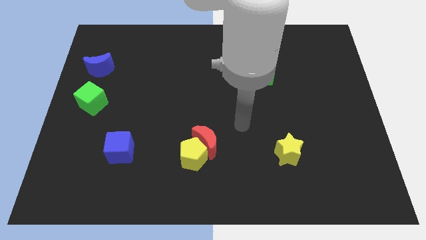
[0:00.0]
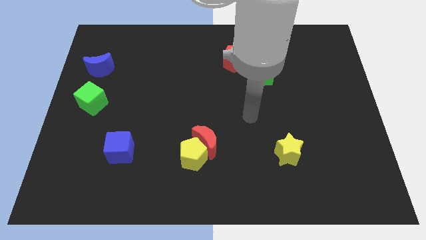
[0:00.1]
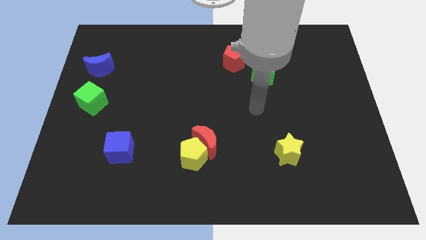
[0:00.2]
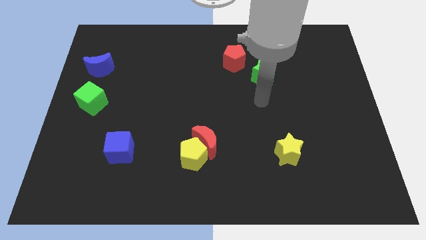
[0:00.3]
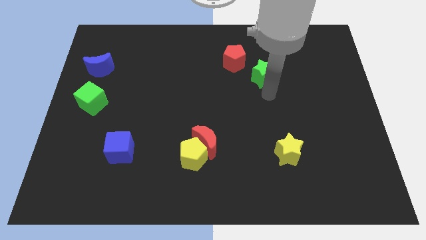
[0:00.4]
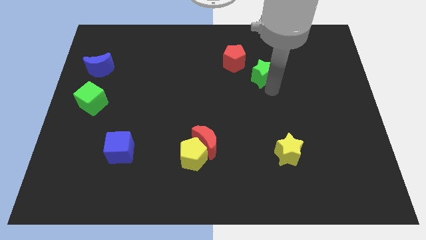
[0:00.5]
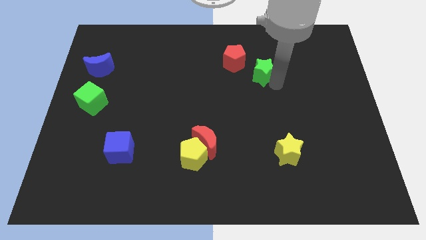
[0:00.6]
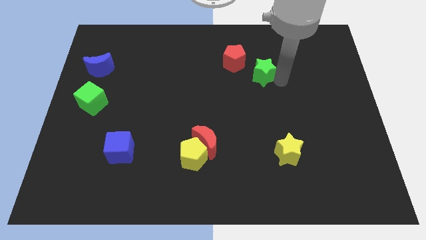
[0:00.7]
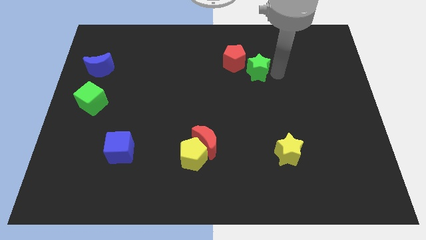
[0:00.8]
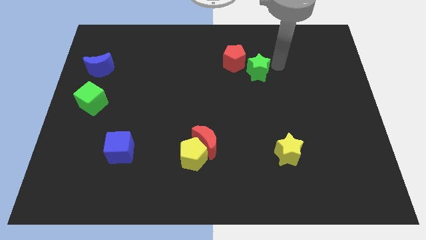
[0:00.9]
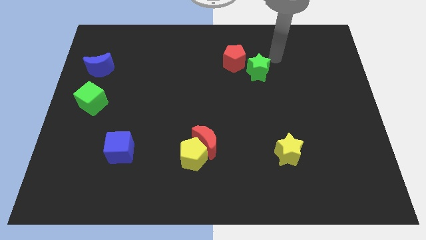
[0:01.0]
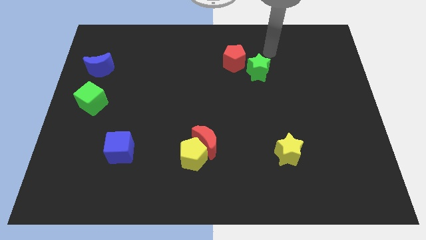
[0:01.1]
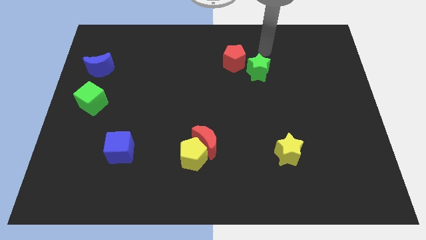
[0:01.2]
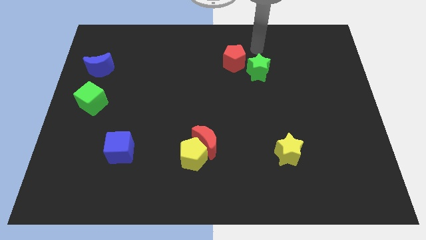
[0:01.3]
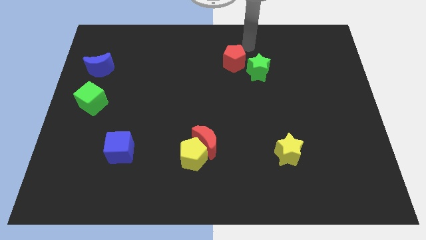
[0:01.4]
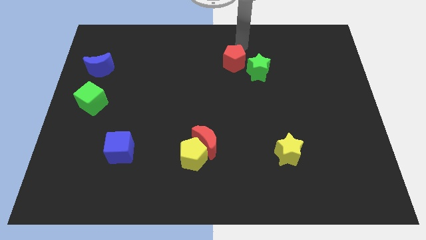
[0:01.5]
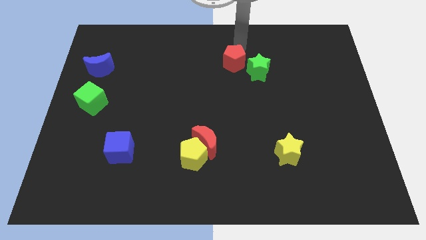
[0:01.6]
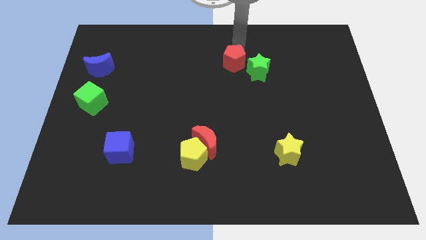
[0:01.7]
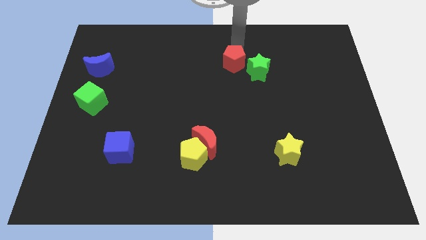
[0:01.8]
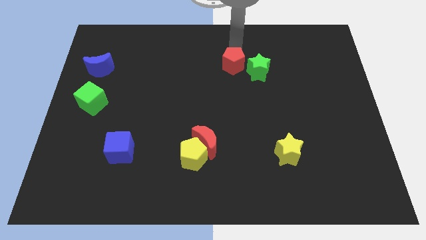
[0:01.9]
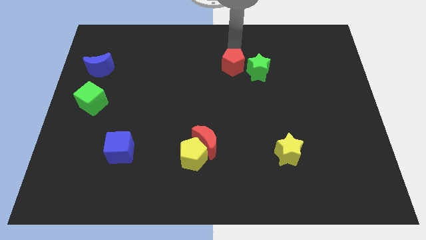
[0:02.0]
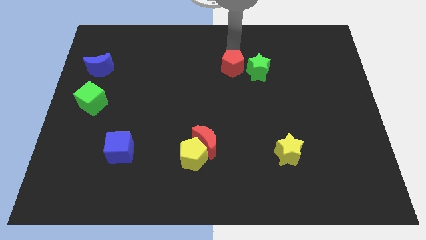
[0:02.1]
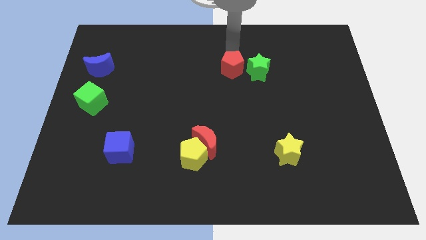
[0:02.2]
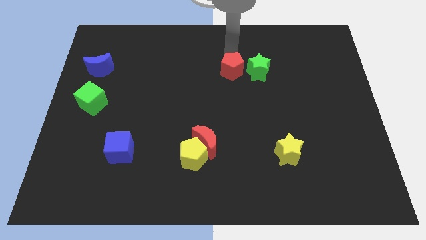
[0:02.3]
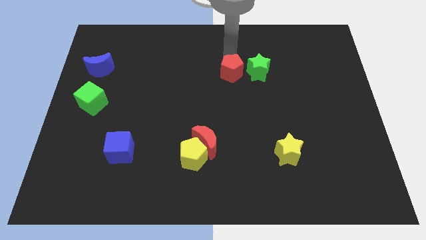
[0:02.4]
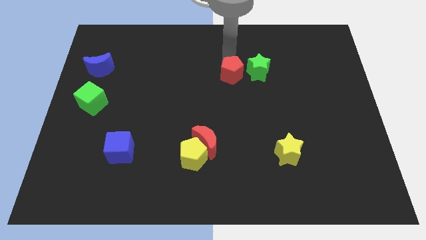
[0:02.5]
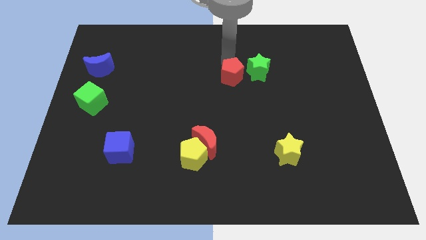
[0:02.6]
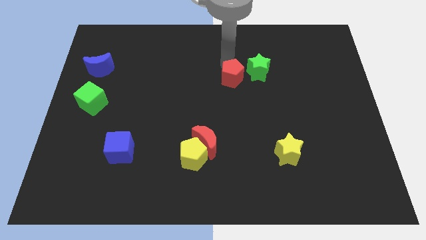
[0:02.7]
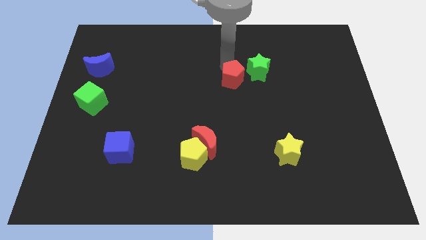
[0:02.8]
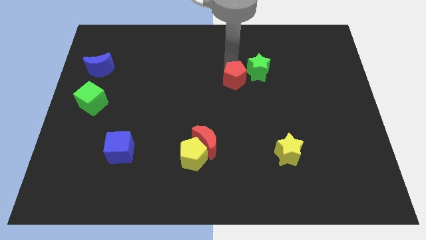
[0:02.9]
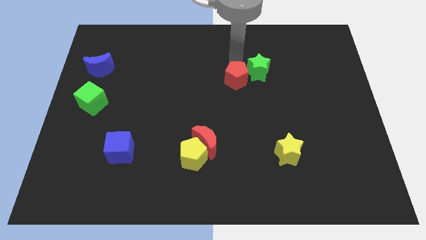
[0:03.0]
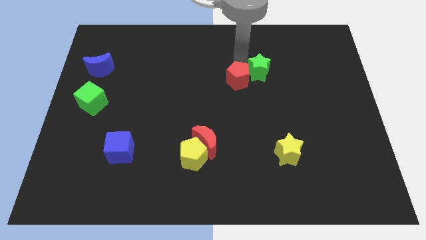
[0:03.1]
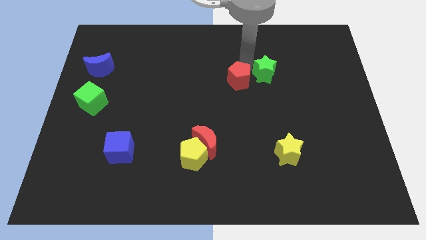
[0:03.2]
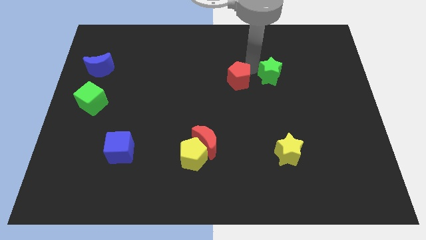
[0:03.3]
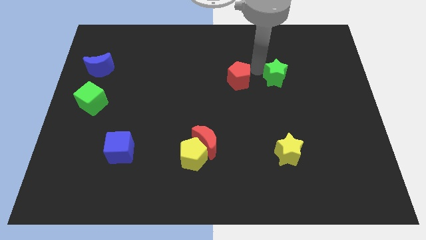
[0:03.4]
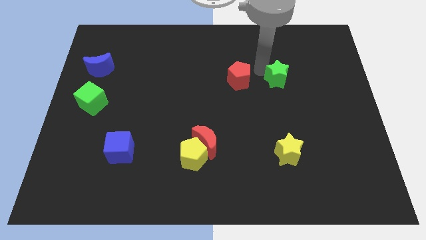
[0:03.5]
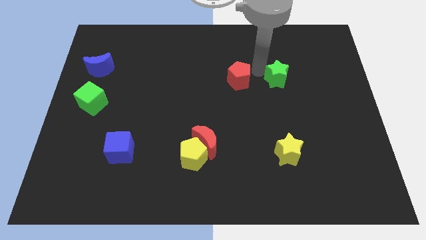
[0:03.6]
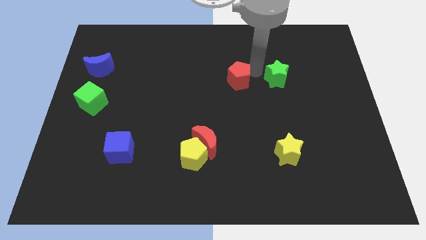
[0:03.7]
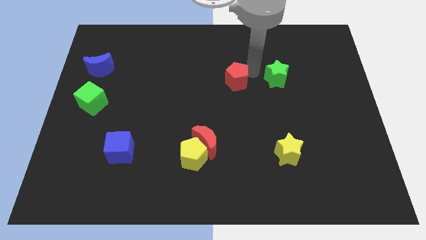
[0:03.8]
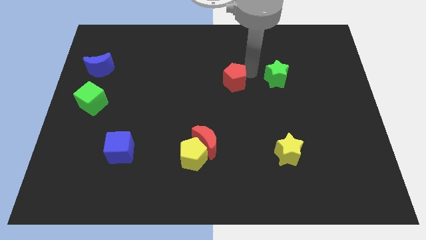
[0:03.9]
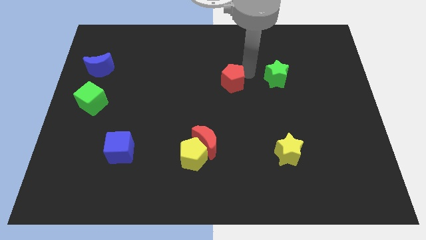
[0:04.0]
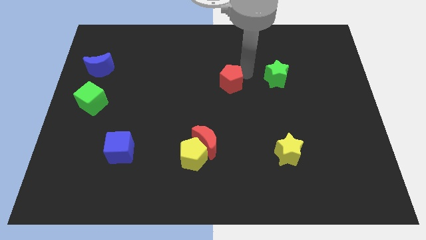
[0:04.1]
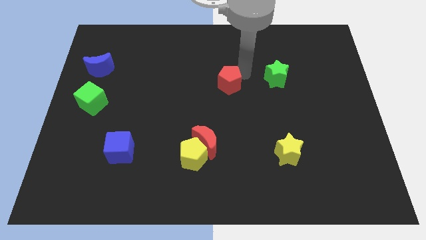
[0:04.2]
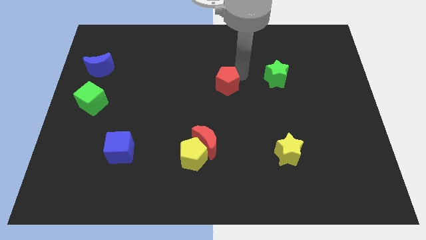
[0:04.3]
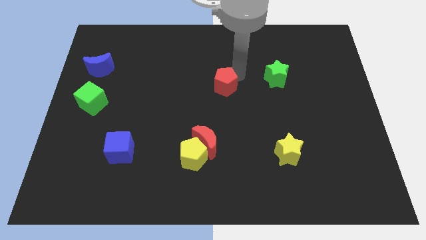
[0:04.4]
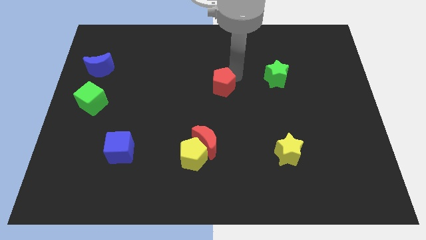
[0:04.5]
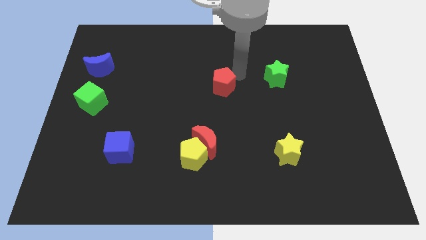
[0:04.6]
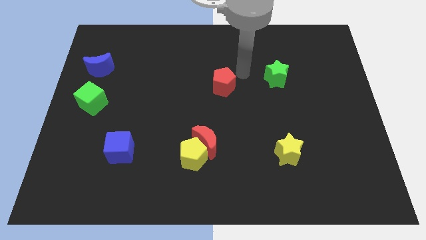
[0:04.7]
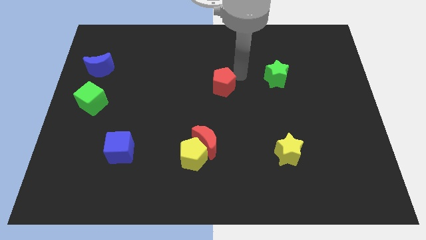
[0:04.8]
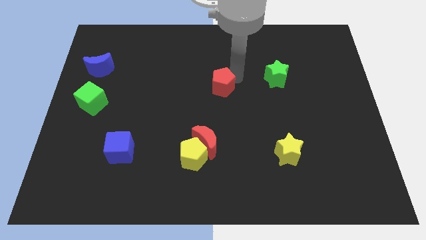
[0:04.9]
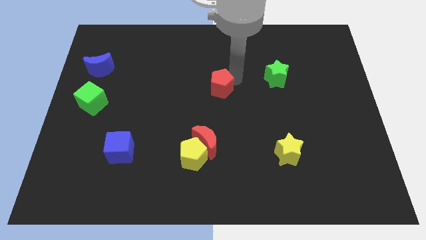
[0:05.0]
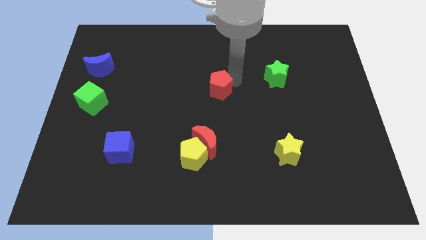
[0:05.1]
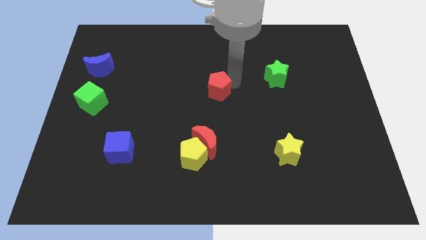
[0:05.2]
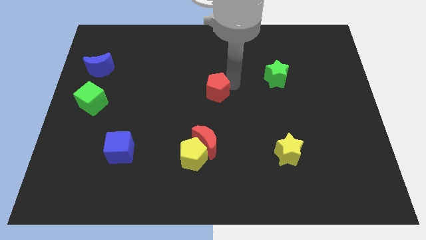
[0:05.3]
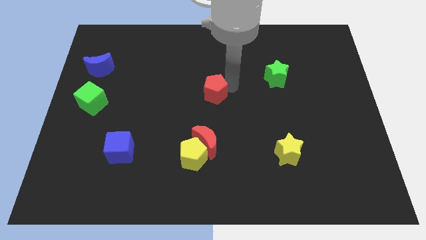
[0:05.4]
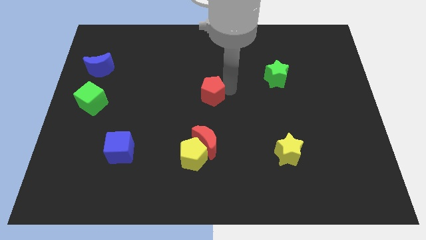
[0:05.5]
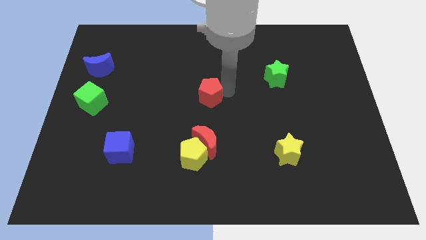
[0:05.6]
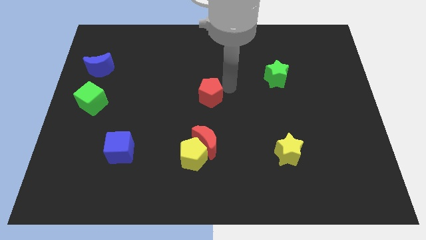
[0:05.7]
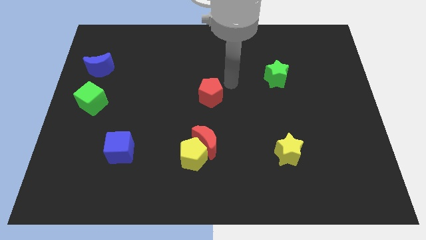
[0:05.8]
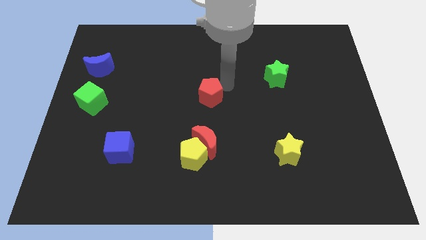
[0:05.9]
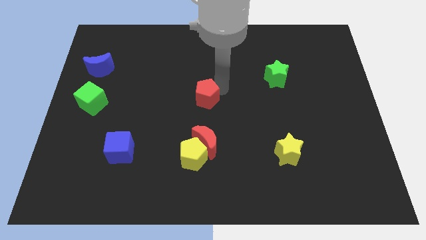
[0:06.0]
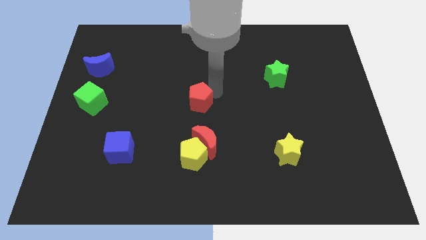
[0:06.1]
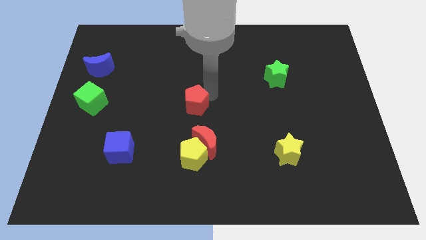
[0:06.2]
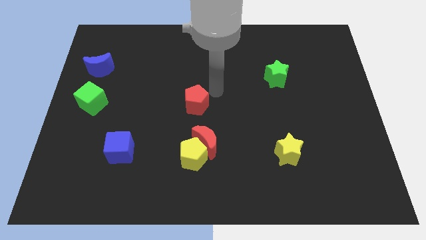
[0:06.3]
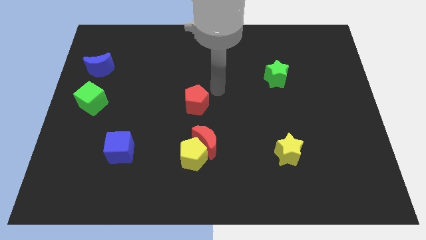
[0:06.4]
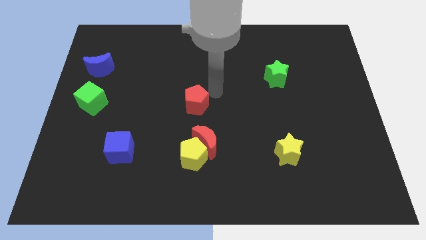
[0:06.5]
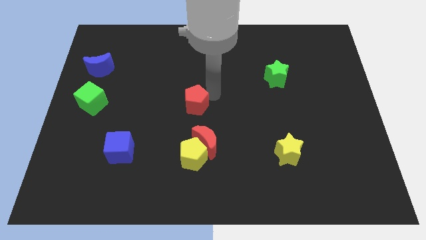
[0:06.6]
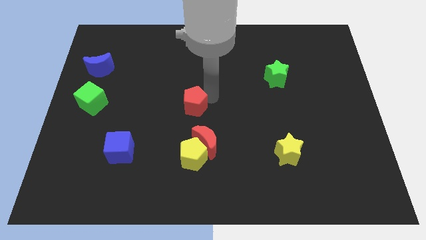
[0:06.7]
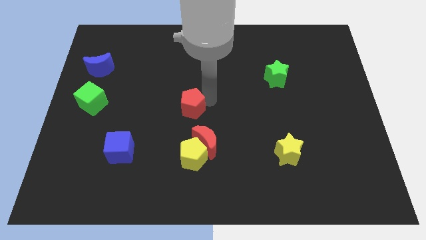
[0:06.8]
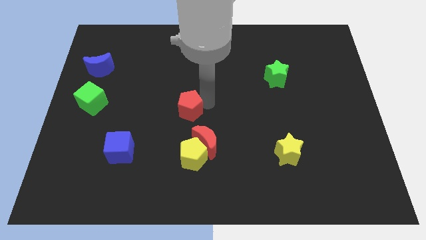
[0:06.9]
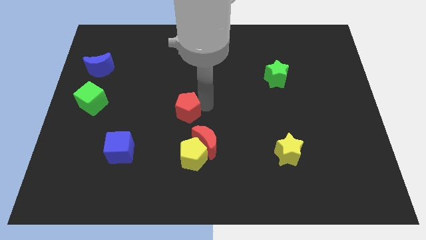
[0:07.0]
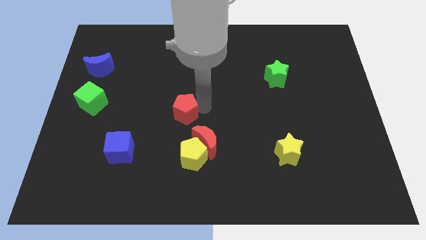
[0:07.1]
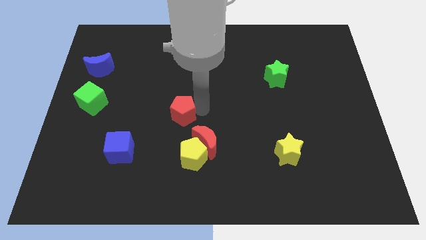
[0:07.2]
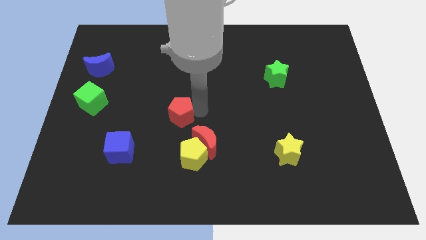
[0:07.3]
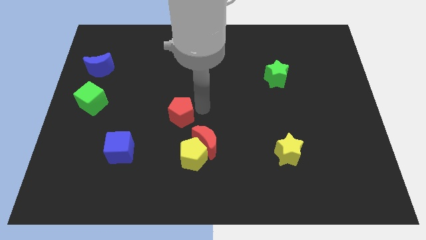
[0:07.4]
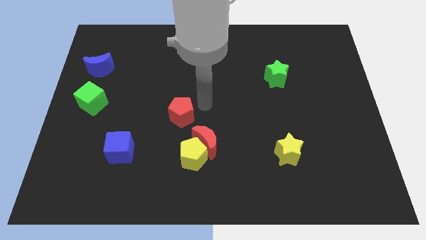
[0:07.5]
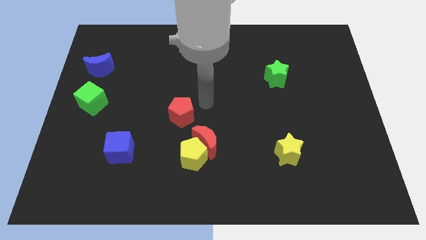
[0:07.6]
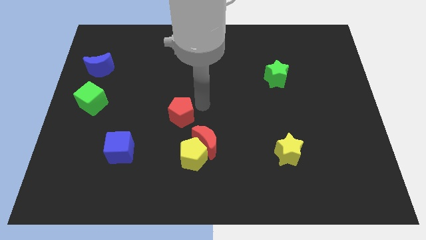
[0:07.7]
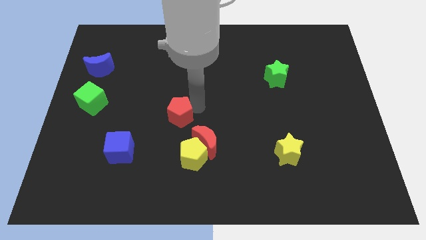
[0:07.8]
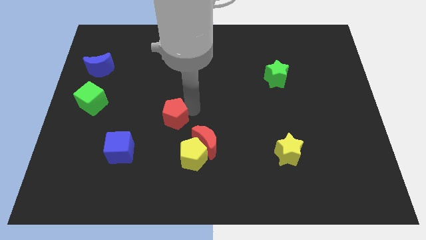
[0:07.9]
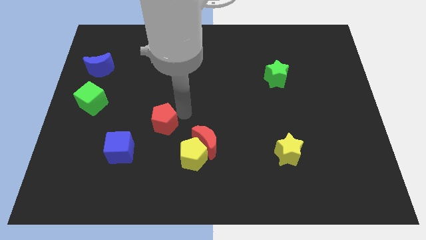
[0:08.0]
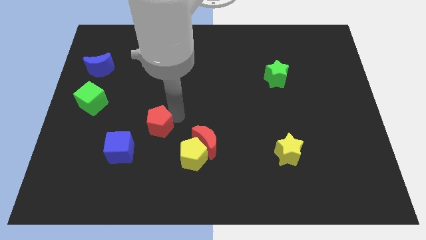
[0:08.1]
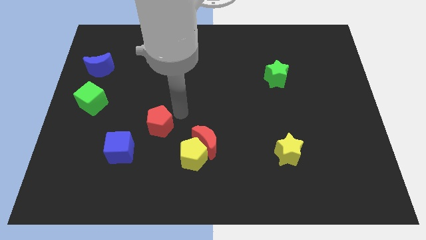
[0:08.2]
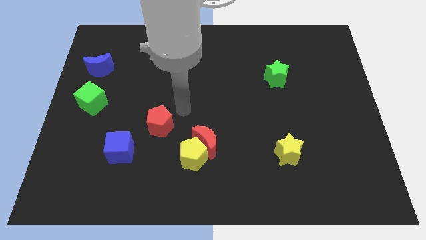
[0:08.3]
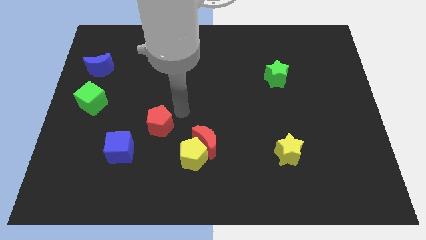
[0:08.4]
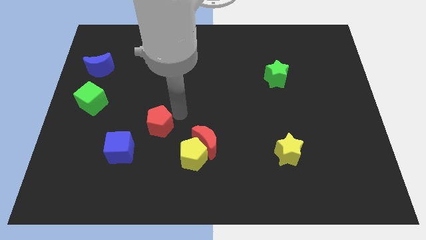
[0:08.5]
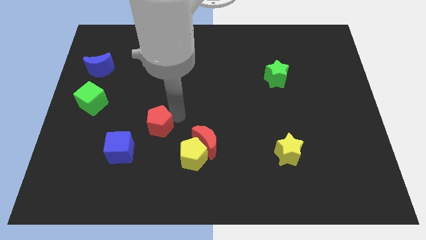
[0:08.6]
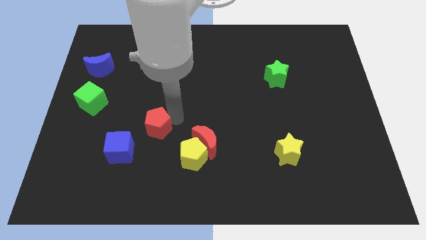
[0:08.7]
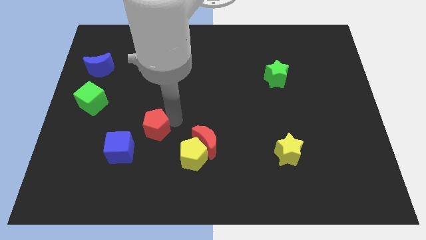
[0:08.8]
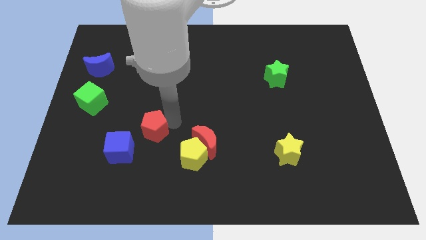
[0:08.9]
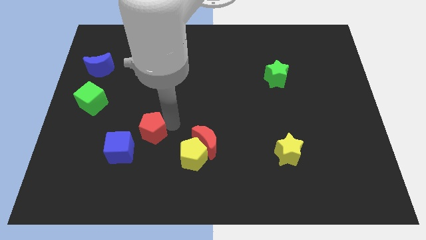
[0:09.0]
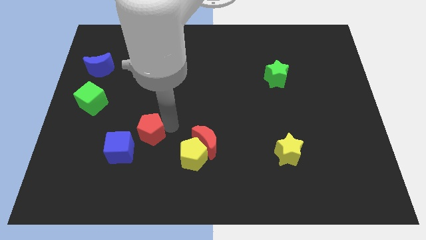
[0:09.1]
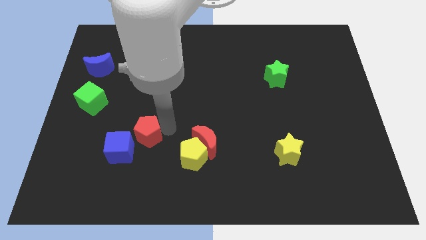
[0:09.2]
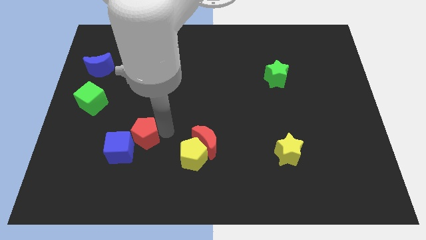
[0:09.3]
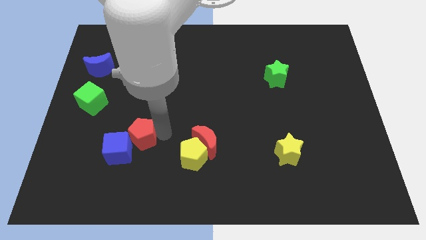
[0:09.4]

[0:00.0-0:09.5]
move the red pentagon towards the blue cube
